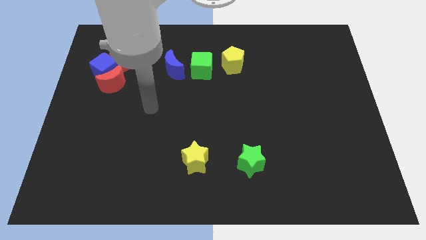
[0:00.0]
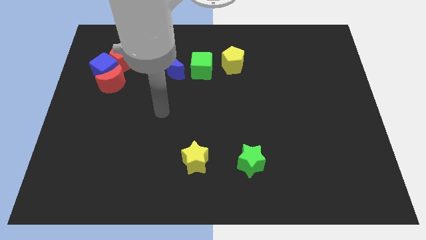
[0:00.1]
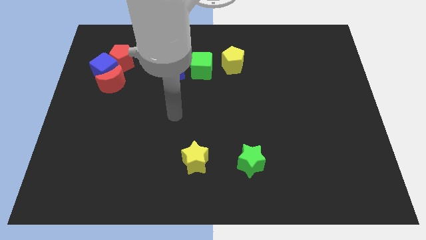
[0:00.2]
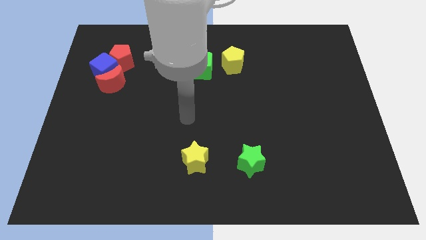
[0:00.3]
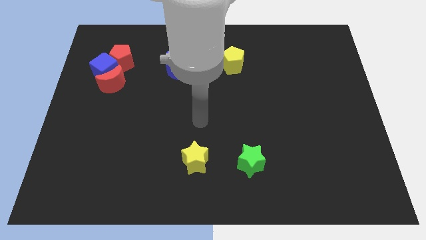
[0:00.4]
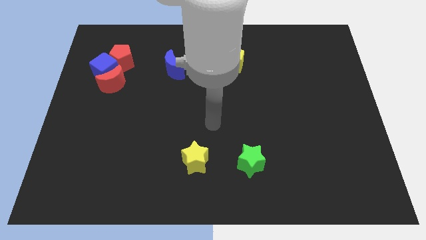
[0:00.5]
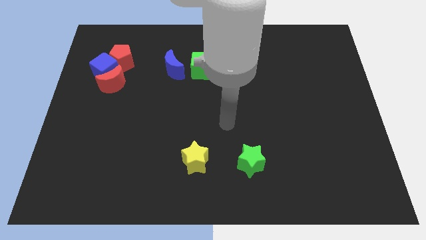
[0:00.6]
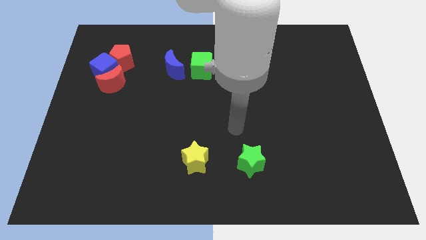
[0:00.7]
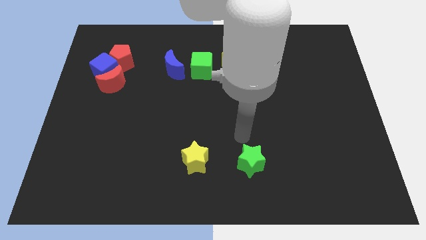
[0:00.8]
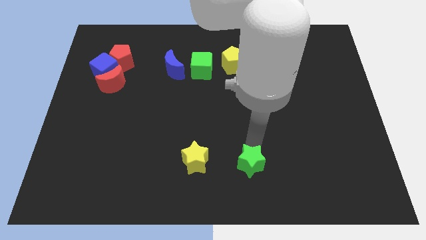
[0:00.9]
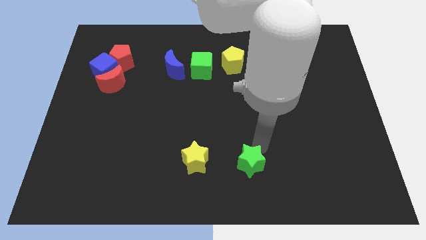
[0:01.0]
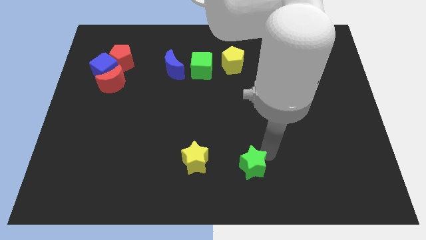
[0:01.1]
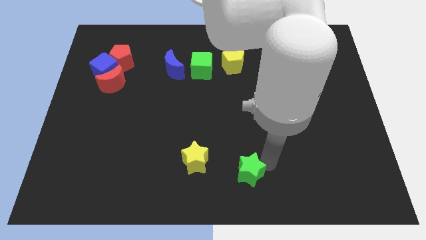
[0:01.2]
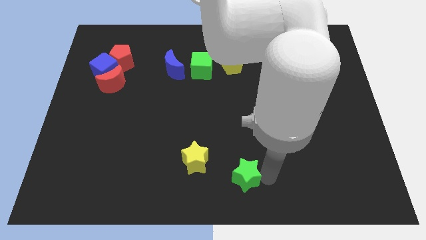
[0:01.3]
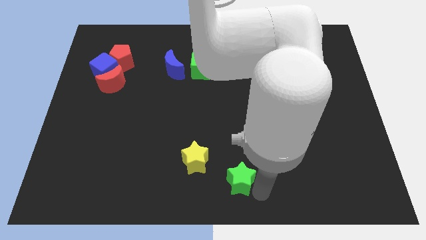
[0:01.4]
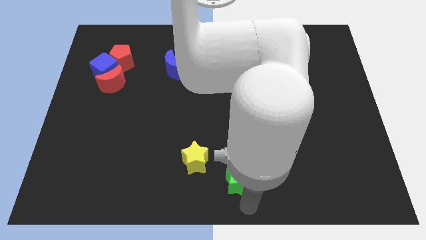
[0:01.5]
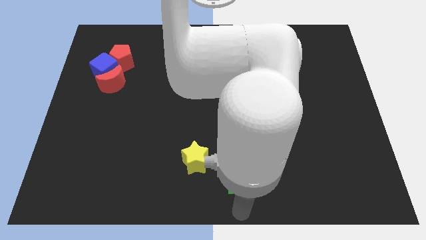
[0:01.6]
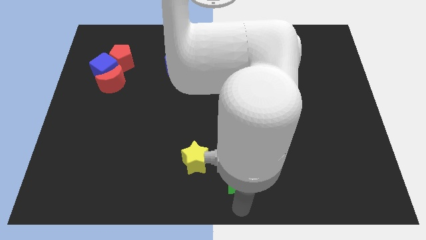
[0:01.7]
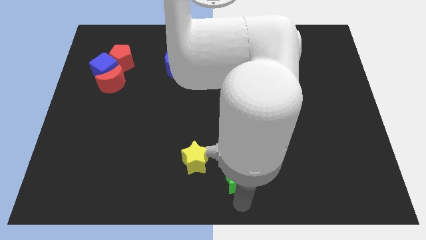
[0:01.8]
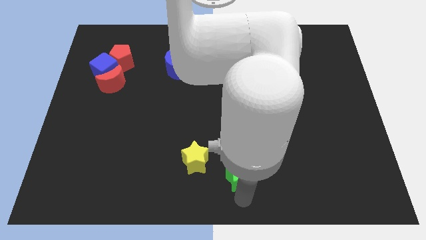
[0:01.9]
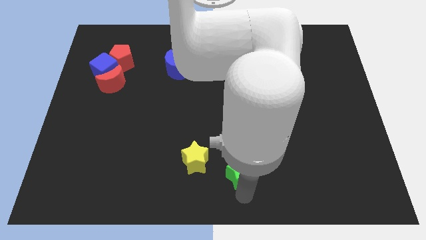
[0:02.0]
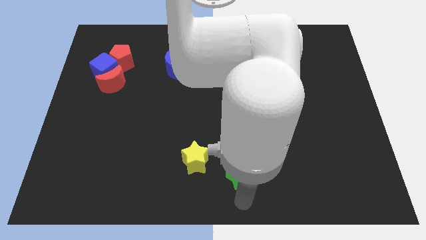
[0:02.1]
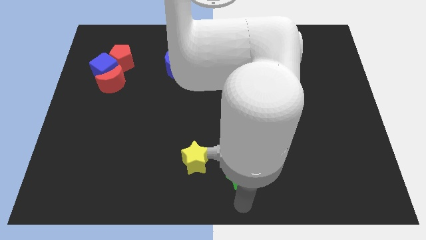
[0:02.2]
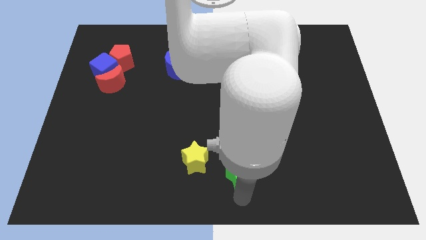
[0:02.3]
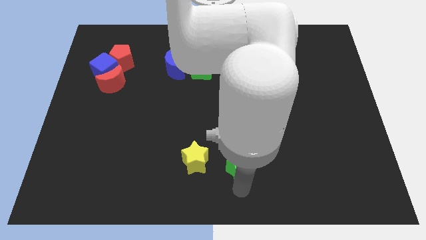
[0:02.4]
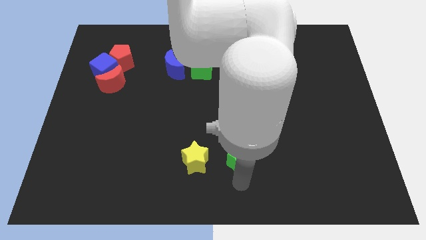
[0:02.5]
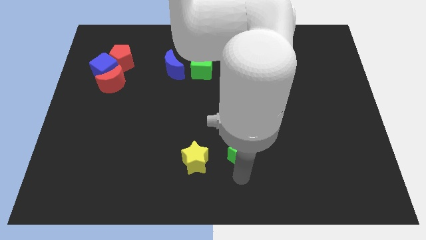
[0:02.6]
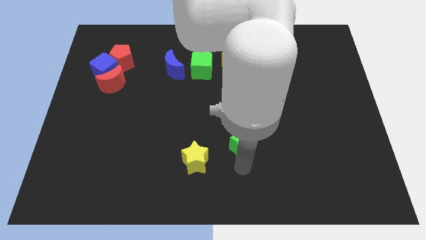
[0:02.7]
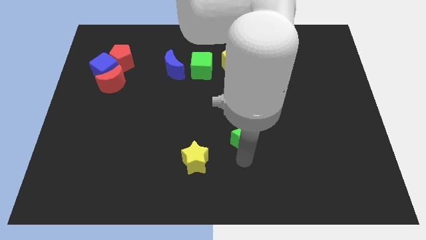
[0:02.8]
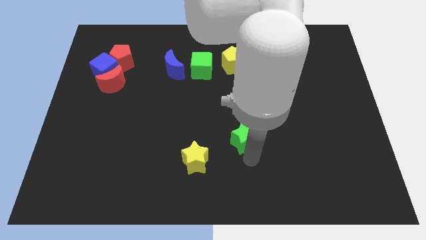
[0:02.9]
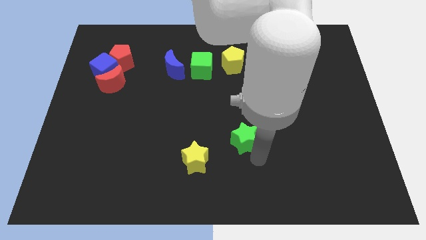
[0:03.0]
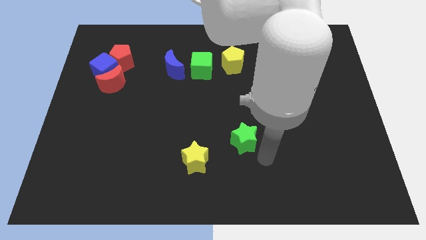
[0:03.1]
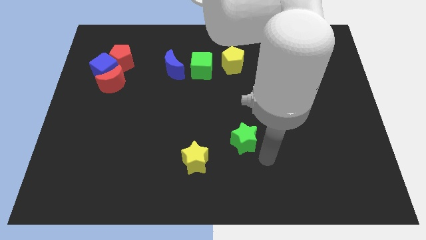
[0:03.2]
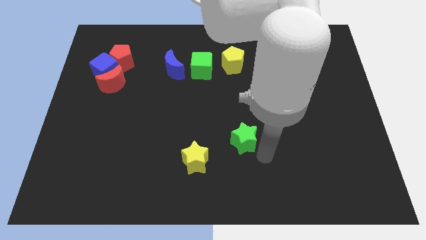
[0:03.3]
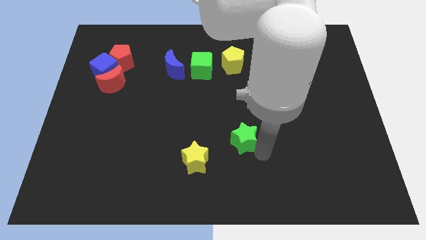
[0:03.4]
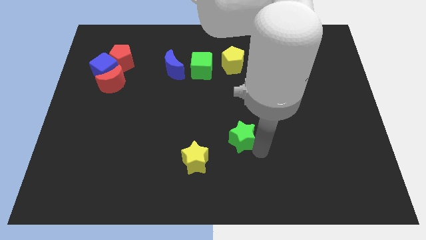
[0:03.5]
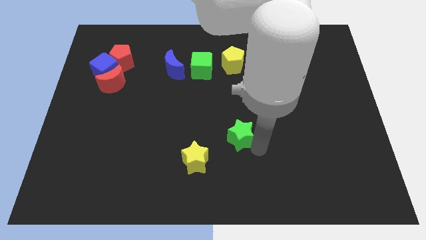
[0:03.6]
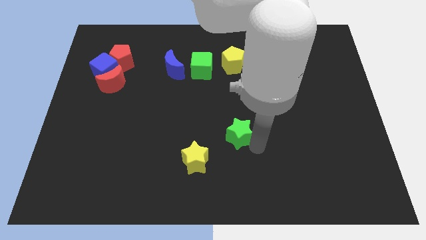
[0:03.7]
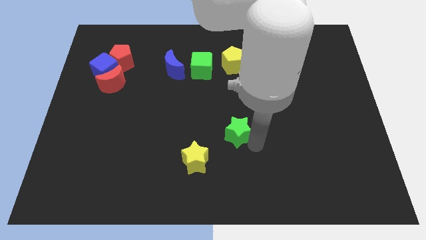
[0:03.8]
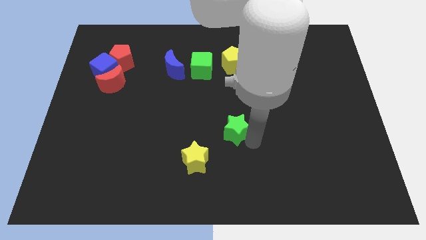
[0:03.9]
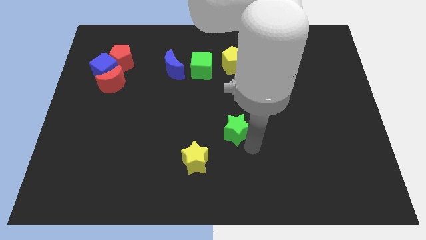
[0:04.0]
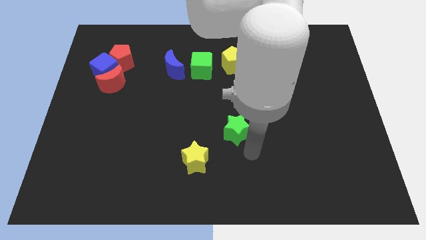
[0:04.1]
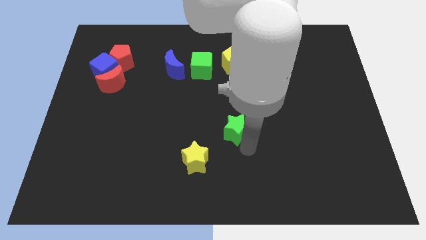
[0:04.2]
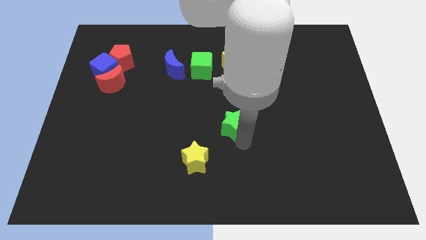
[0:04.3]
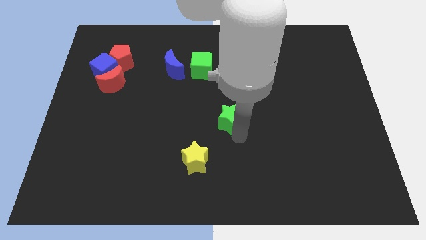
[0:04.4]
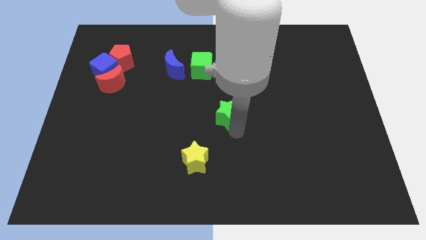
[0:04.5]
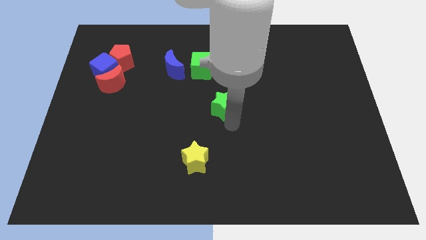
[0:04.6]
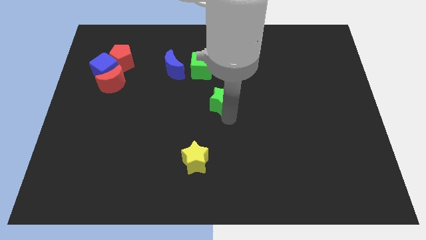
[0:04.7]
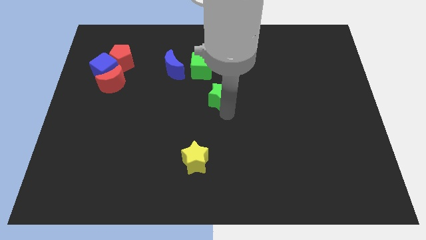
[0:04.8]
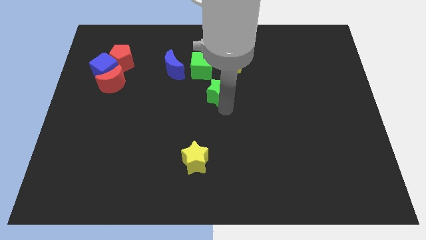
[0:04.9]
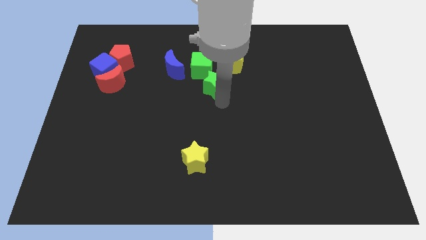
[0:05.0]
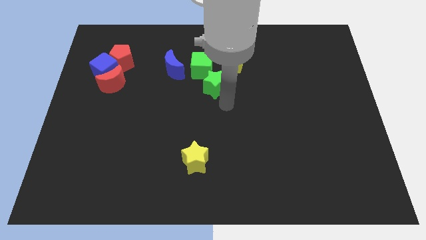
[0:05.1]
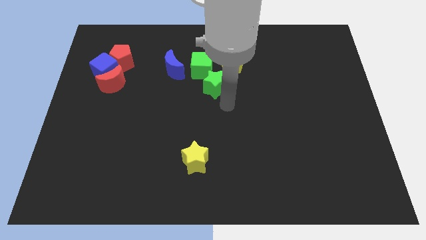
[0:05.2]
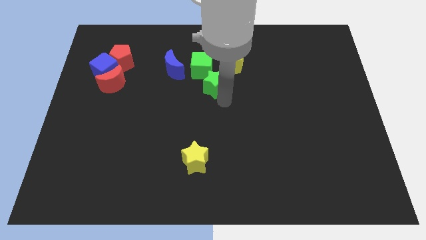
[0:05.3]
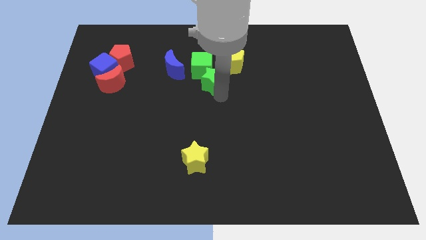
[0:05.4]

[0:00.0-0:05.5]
slide the green star towards the green cube

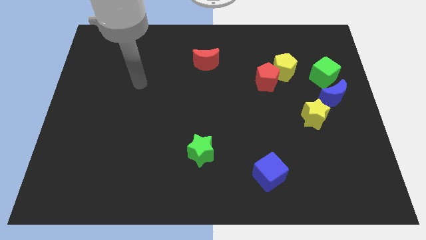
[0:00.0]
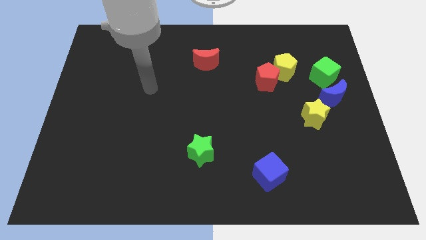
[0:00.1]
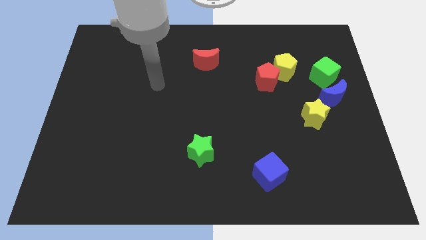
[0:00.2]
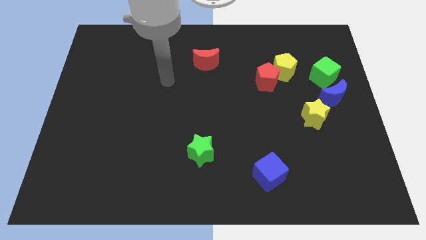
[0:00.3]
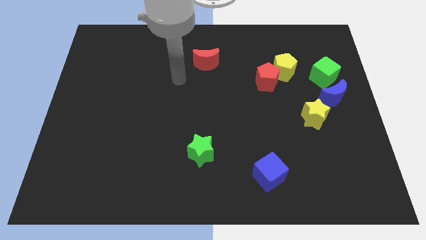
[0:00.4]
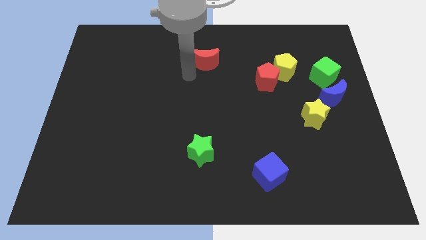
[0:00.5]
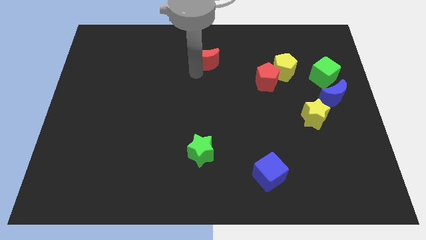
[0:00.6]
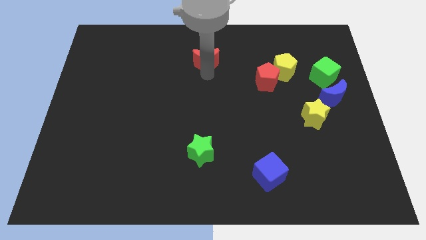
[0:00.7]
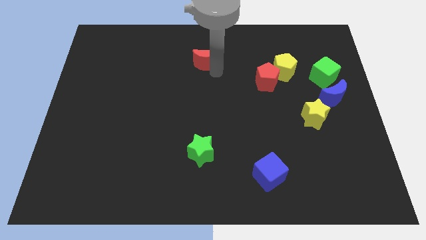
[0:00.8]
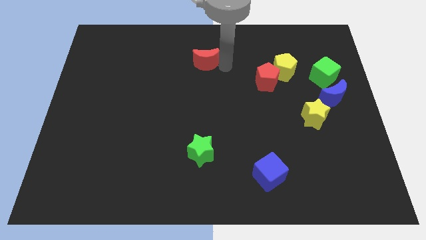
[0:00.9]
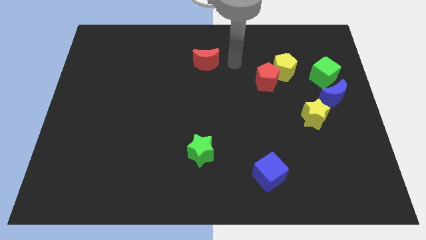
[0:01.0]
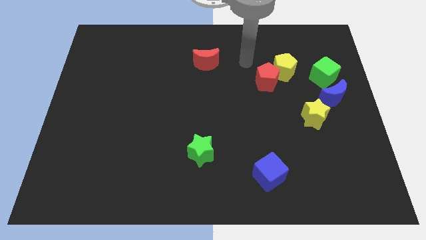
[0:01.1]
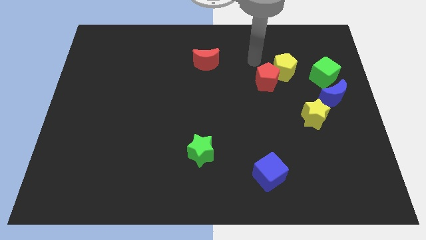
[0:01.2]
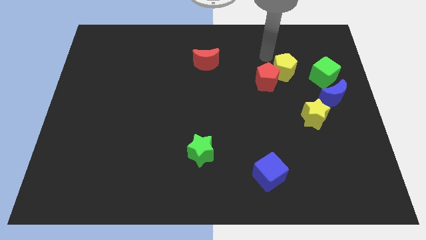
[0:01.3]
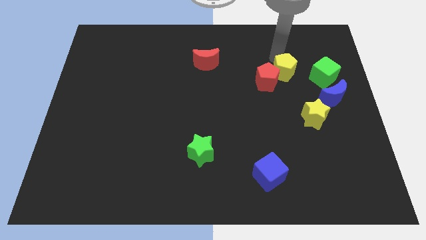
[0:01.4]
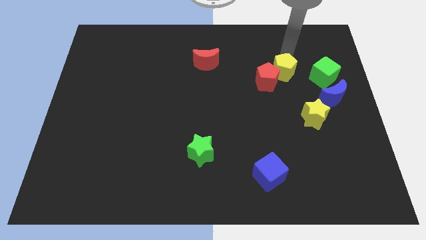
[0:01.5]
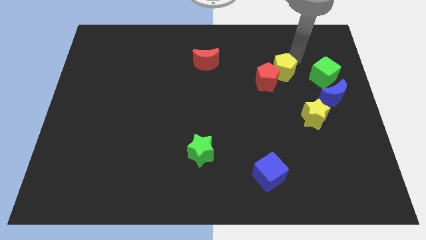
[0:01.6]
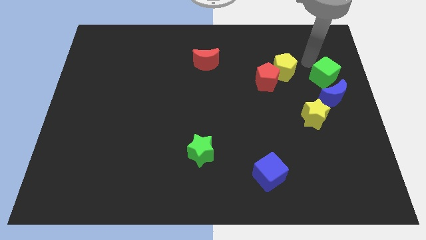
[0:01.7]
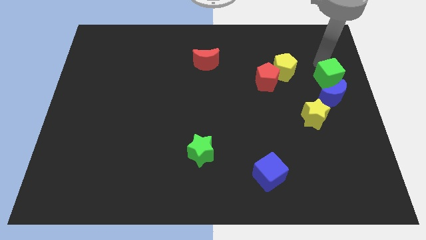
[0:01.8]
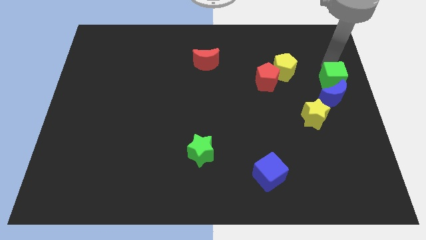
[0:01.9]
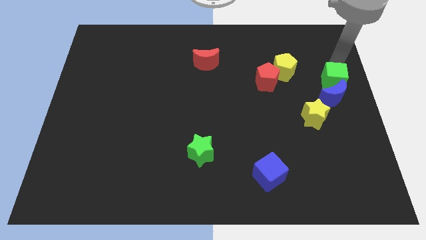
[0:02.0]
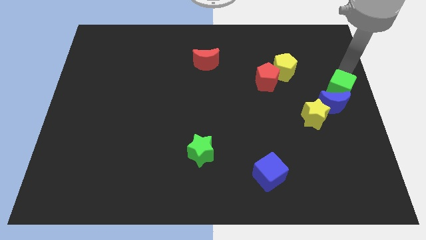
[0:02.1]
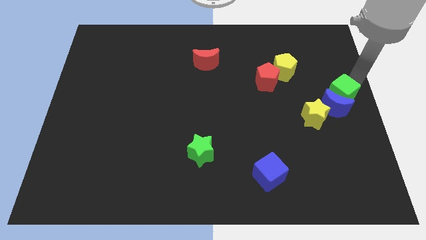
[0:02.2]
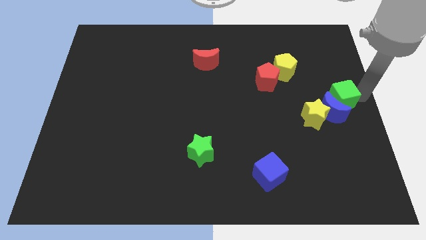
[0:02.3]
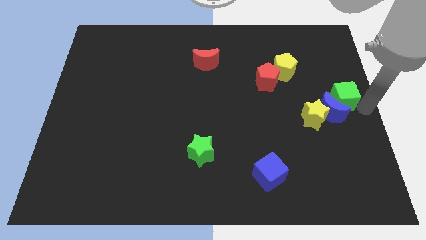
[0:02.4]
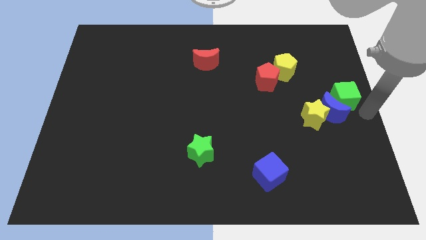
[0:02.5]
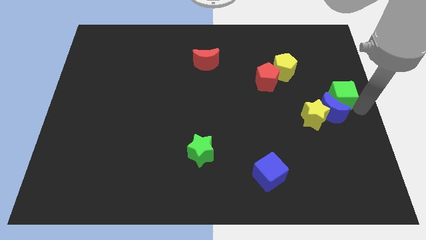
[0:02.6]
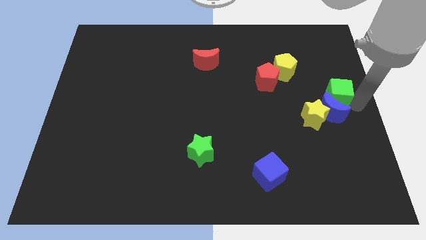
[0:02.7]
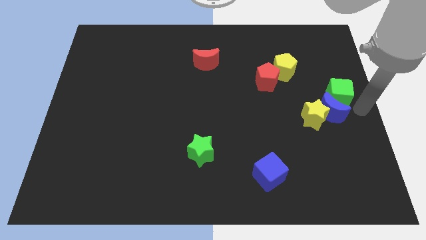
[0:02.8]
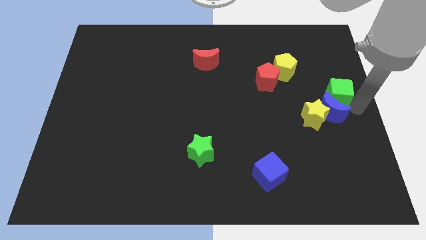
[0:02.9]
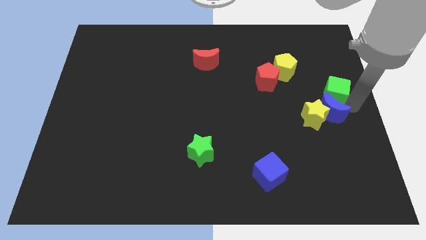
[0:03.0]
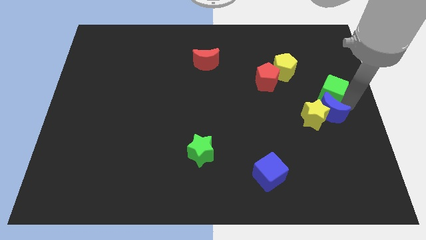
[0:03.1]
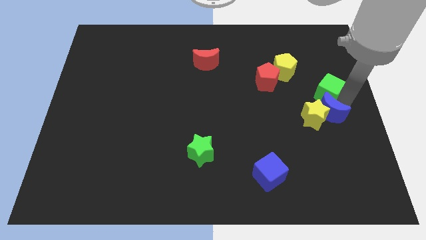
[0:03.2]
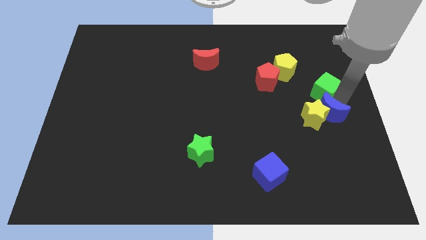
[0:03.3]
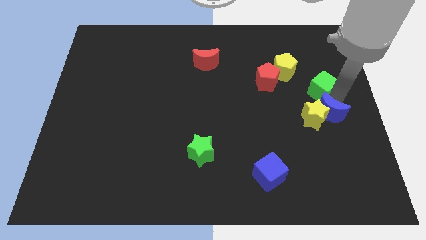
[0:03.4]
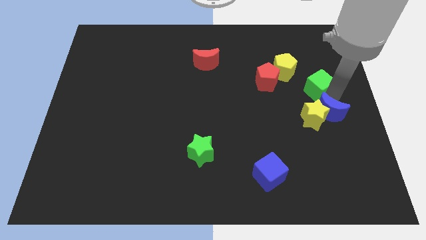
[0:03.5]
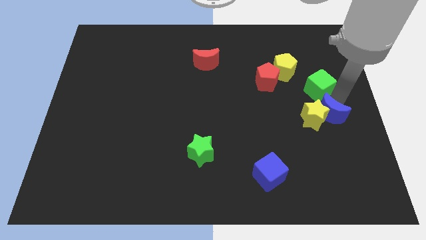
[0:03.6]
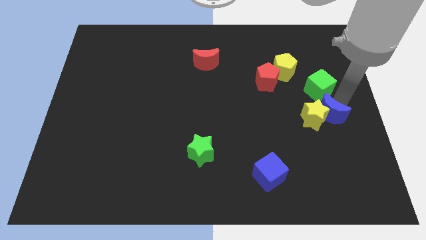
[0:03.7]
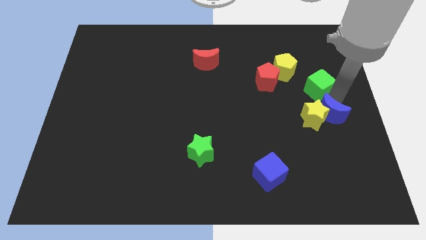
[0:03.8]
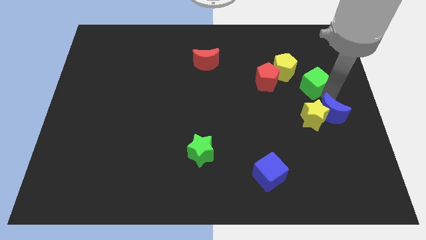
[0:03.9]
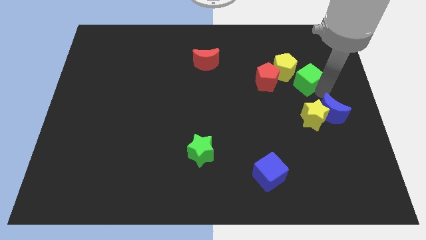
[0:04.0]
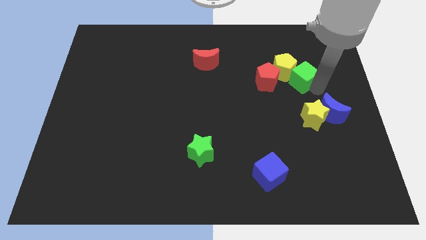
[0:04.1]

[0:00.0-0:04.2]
put the green cube close to the yellow pentagon
